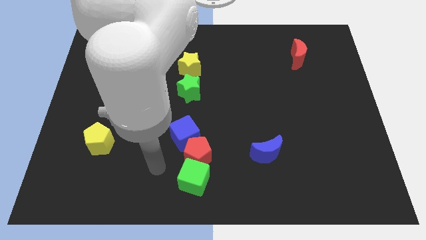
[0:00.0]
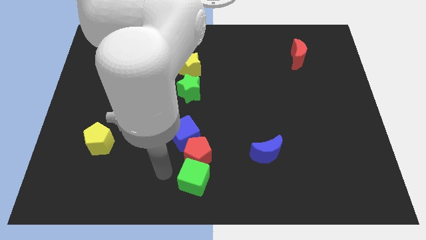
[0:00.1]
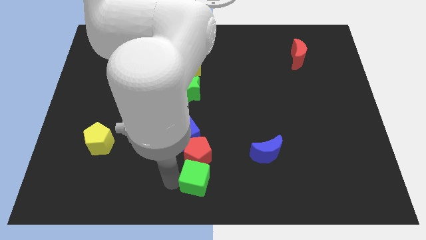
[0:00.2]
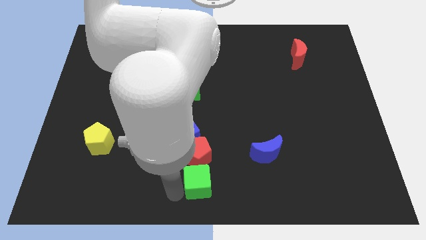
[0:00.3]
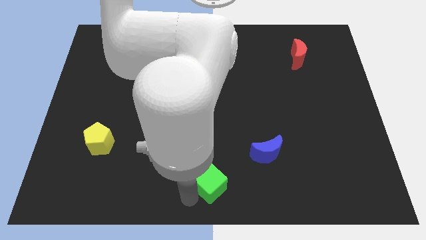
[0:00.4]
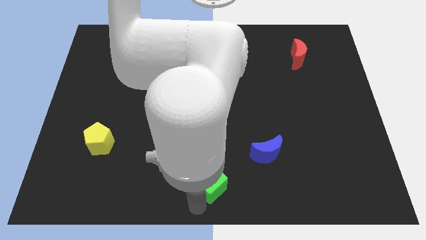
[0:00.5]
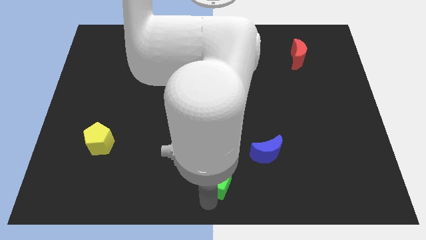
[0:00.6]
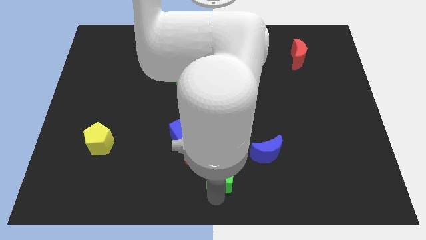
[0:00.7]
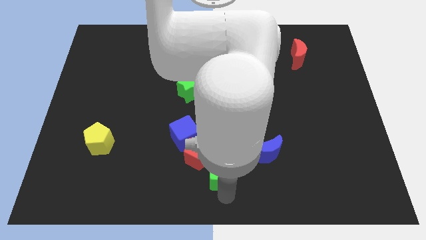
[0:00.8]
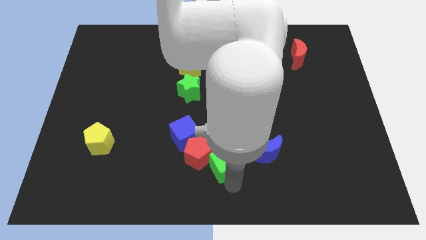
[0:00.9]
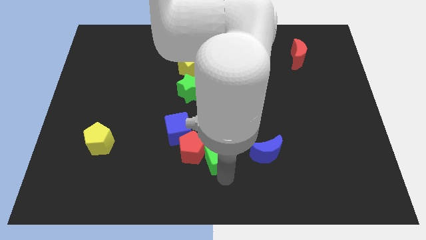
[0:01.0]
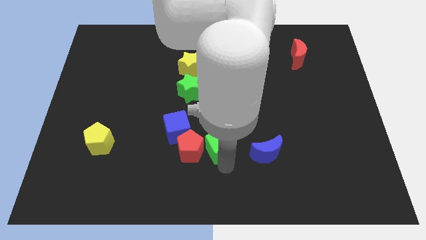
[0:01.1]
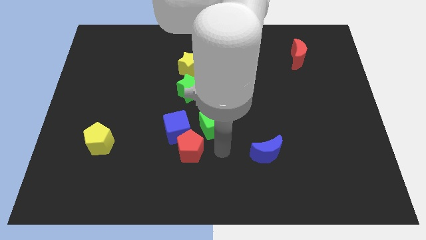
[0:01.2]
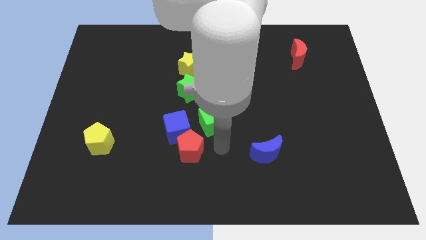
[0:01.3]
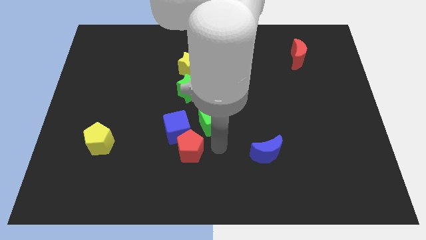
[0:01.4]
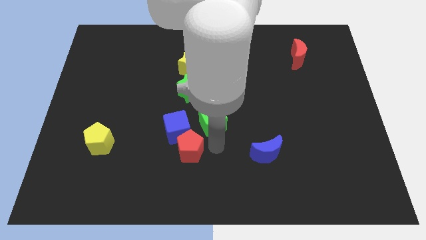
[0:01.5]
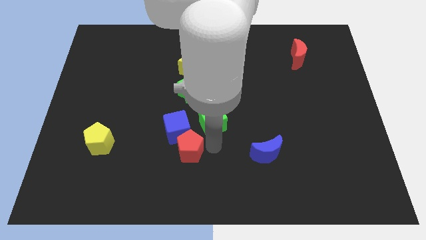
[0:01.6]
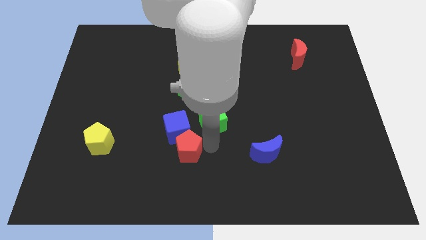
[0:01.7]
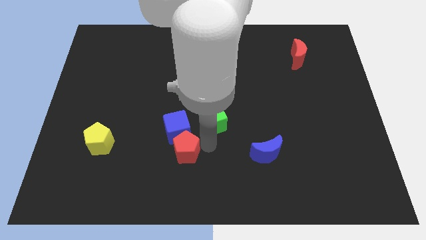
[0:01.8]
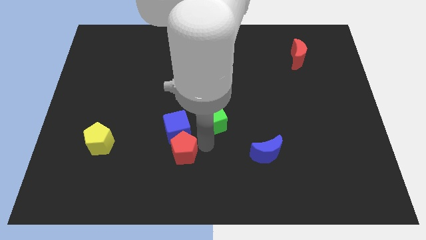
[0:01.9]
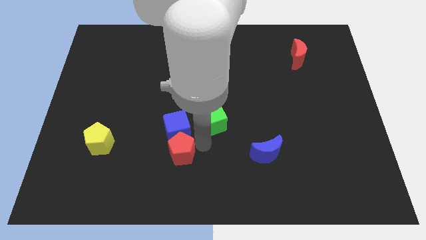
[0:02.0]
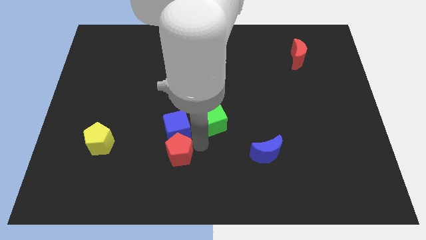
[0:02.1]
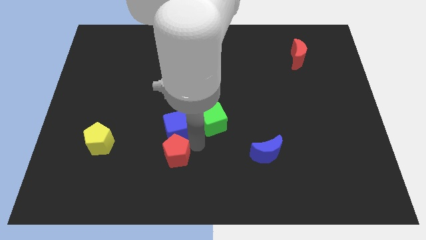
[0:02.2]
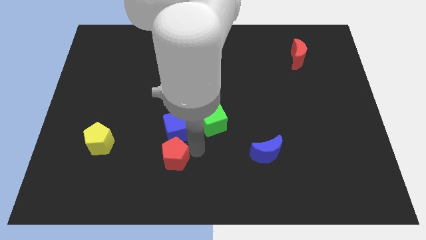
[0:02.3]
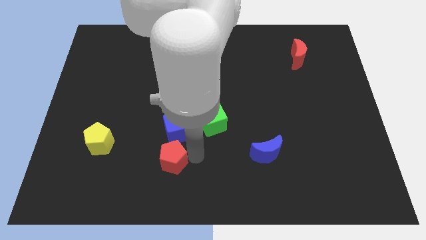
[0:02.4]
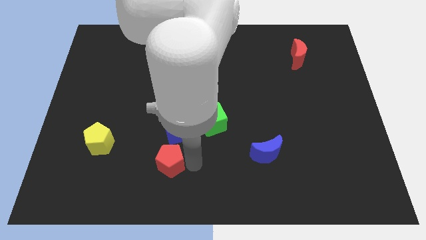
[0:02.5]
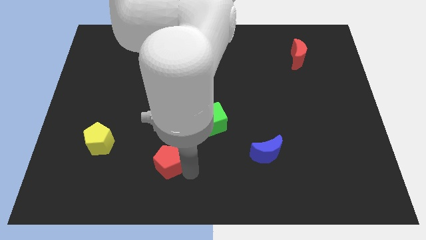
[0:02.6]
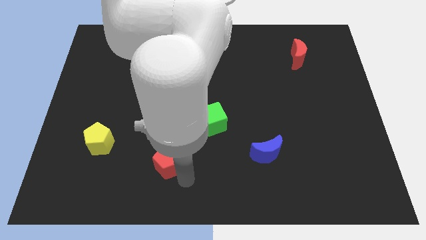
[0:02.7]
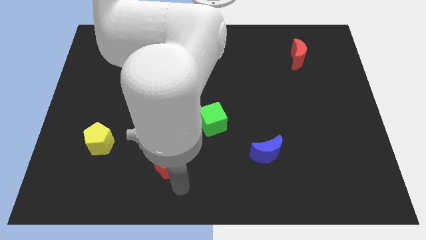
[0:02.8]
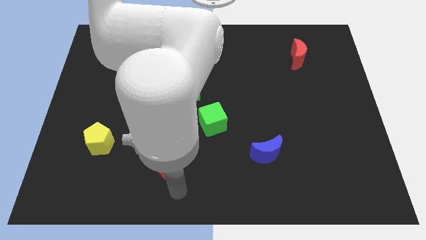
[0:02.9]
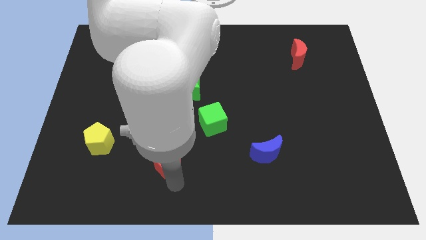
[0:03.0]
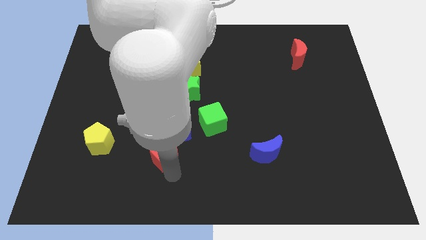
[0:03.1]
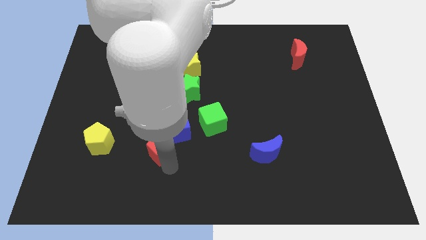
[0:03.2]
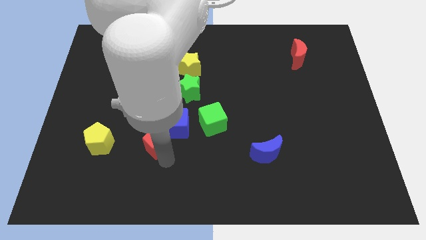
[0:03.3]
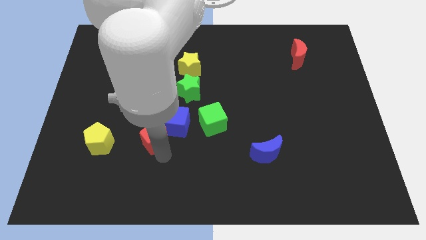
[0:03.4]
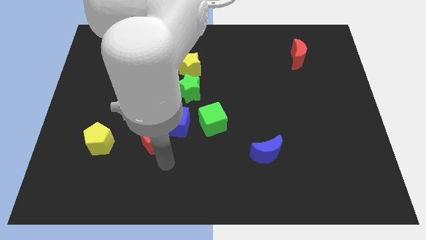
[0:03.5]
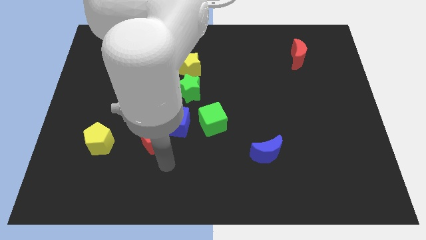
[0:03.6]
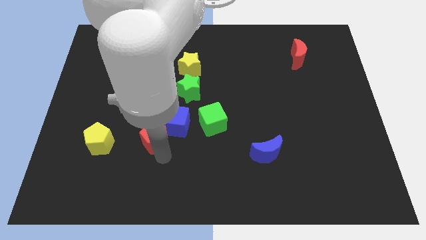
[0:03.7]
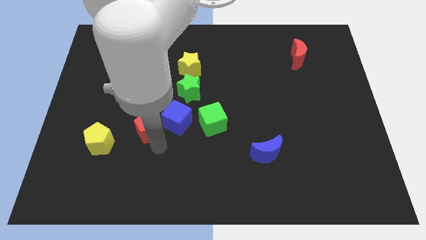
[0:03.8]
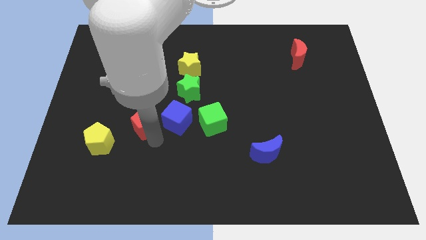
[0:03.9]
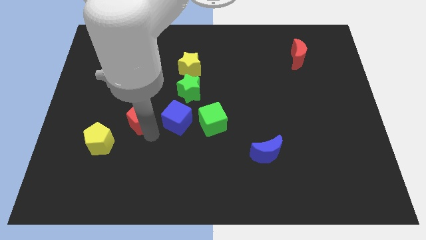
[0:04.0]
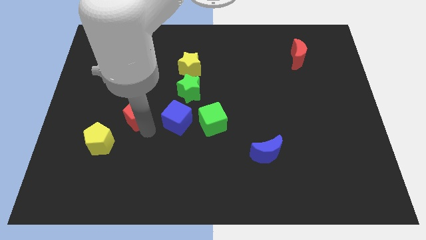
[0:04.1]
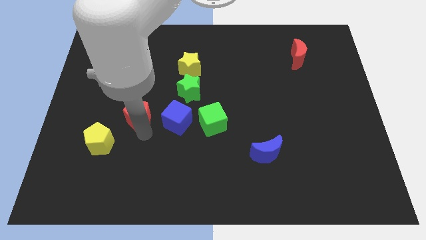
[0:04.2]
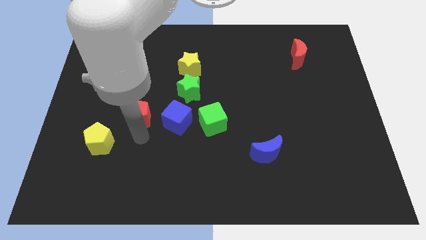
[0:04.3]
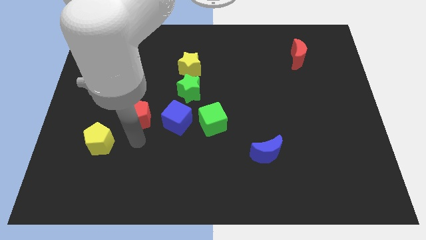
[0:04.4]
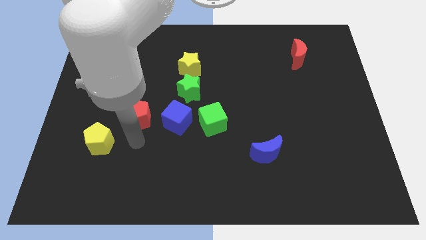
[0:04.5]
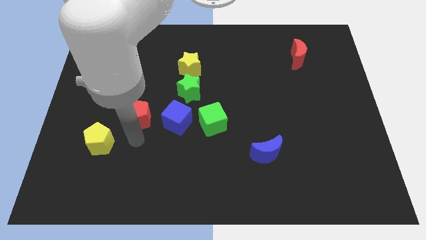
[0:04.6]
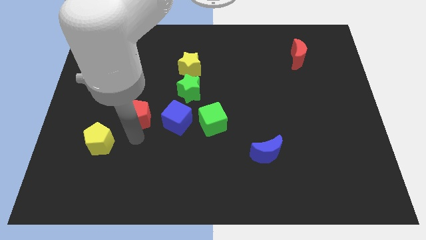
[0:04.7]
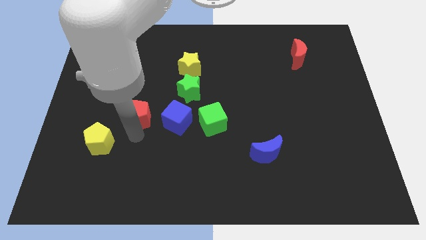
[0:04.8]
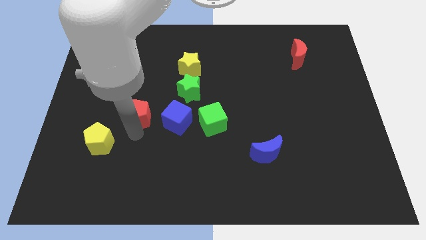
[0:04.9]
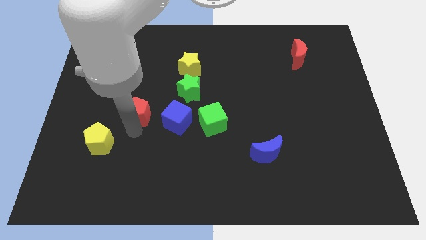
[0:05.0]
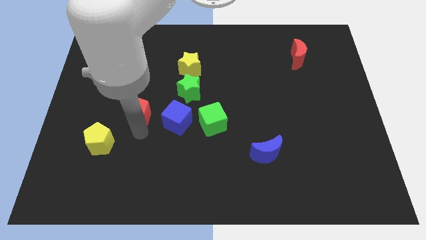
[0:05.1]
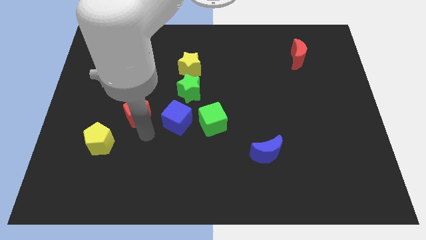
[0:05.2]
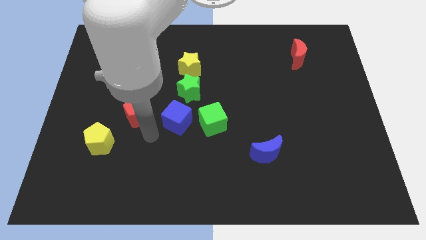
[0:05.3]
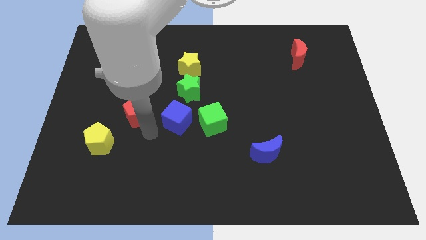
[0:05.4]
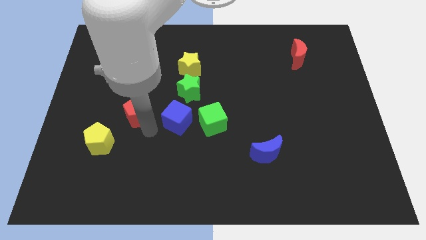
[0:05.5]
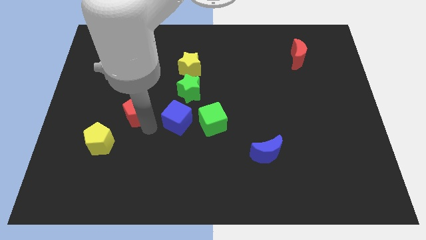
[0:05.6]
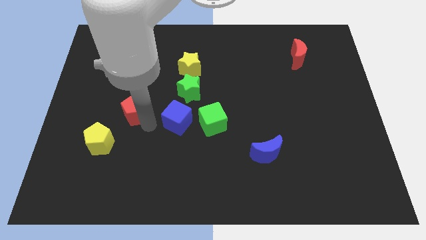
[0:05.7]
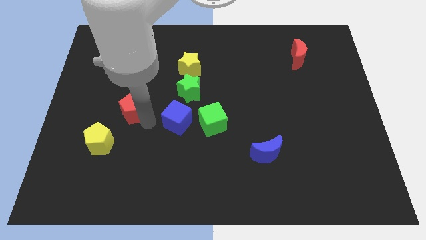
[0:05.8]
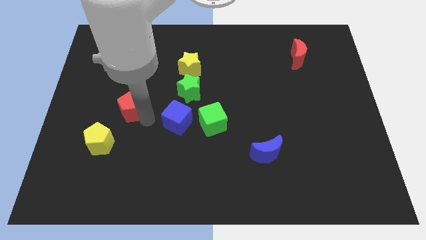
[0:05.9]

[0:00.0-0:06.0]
push the red pentagon upwards and to the left diagonally

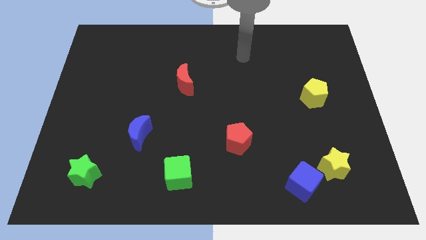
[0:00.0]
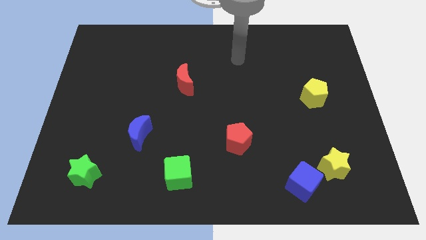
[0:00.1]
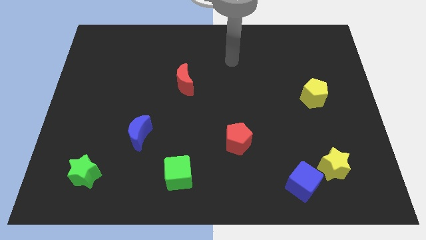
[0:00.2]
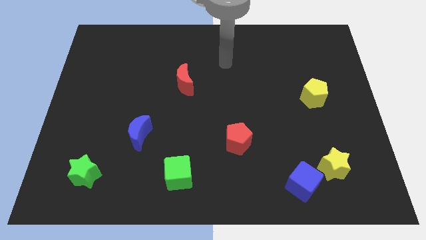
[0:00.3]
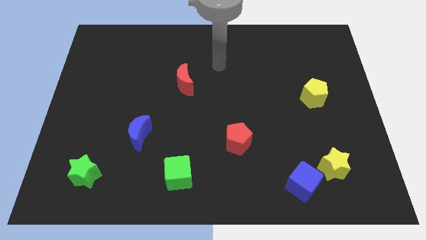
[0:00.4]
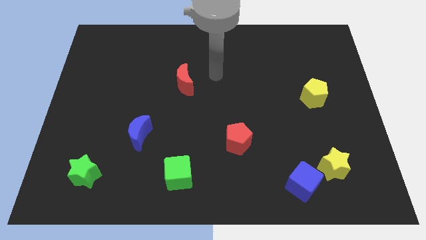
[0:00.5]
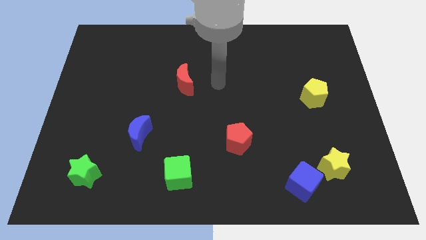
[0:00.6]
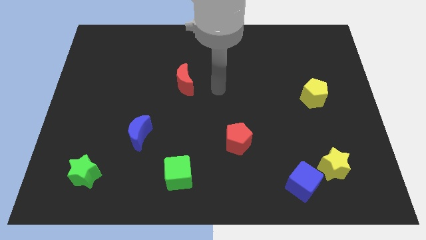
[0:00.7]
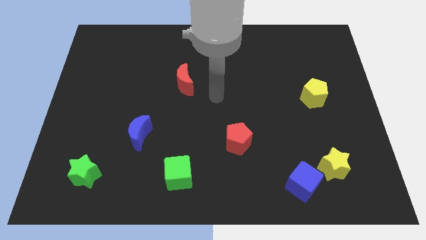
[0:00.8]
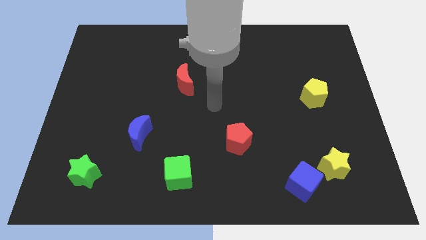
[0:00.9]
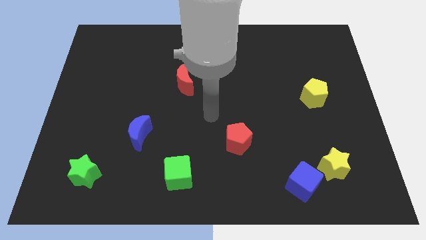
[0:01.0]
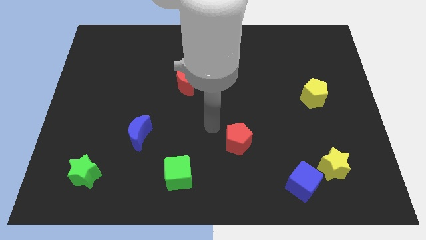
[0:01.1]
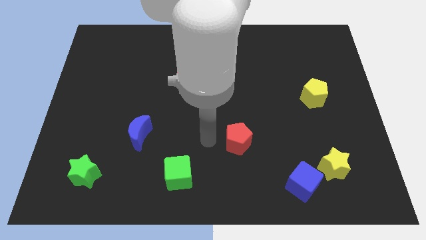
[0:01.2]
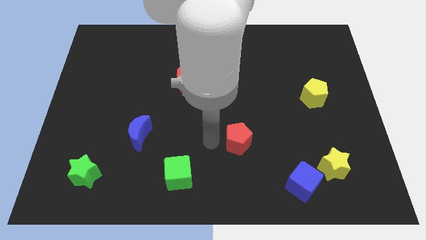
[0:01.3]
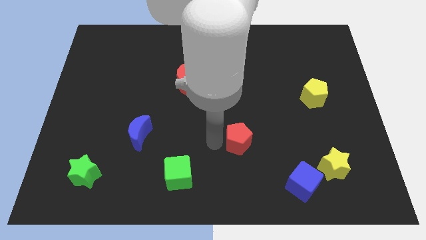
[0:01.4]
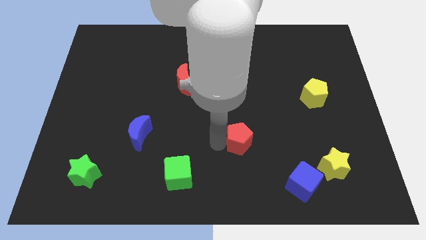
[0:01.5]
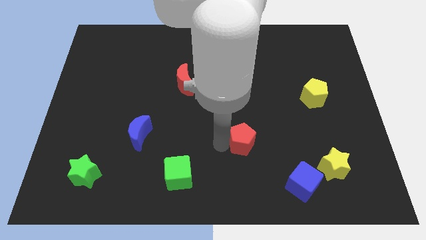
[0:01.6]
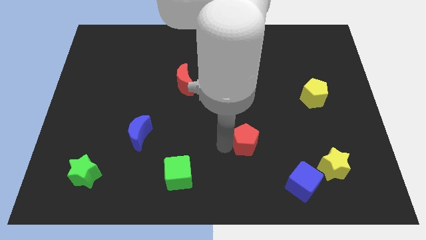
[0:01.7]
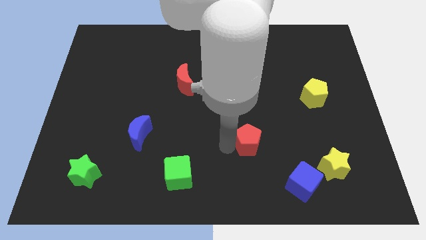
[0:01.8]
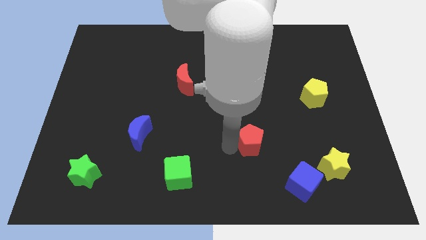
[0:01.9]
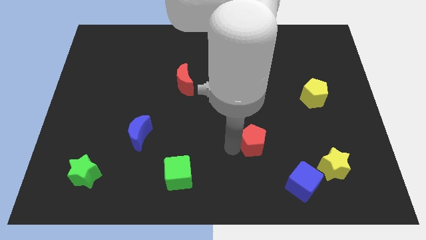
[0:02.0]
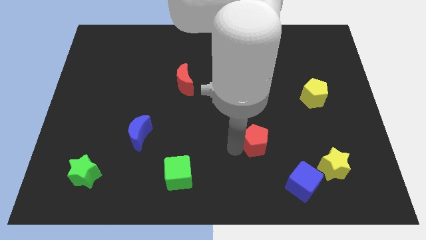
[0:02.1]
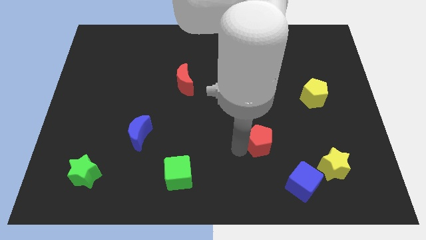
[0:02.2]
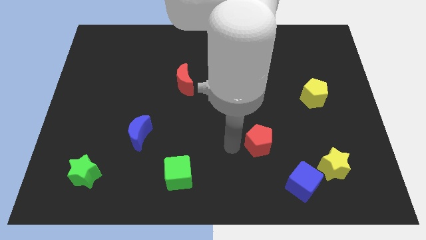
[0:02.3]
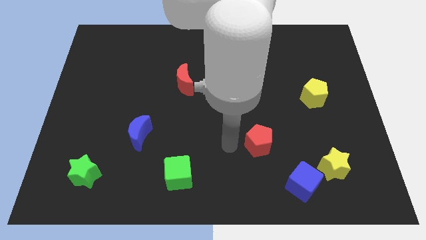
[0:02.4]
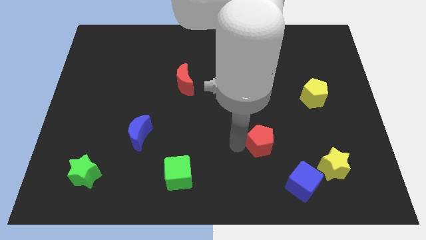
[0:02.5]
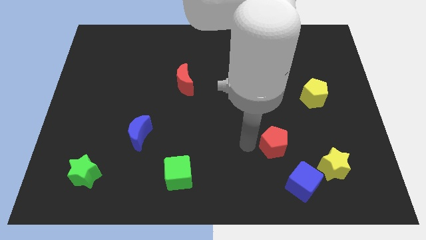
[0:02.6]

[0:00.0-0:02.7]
move the red pentagon right slightly
